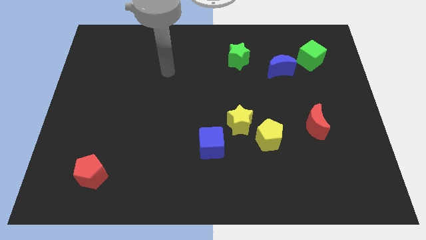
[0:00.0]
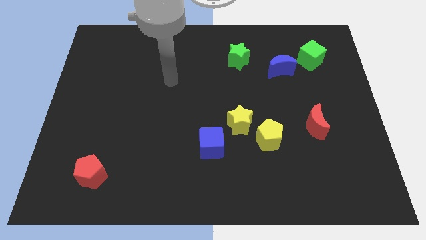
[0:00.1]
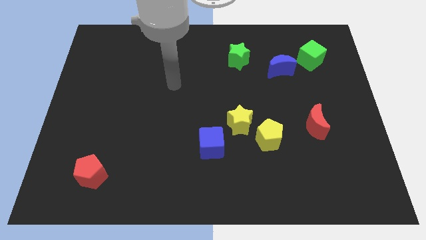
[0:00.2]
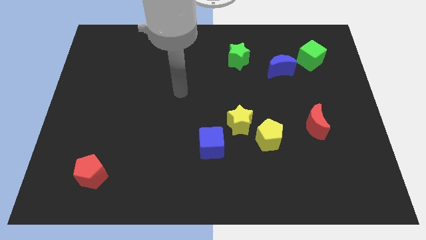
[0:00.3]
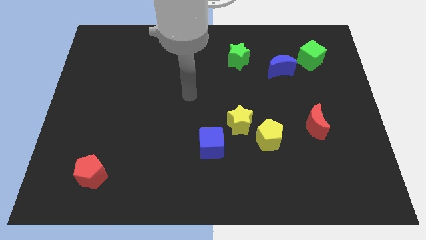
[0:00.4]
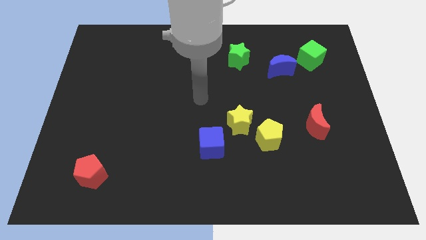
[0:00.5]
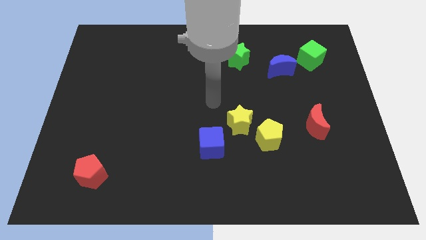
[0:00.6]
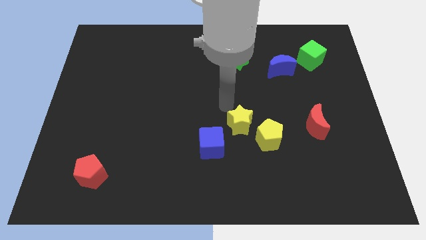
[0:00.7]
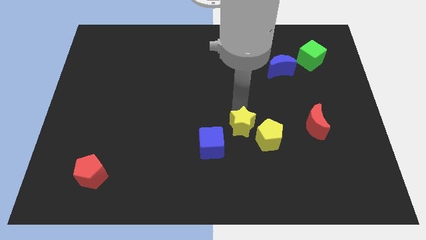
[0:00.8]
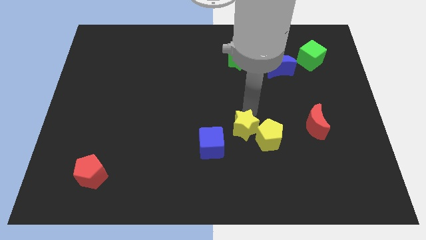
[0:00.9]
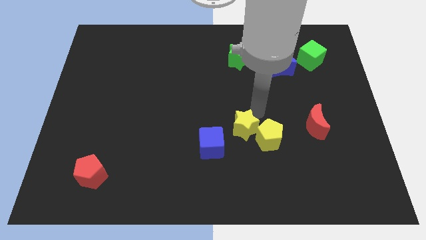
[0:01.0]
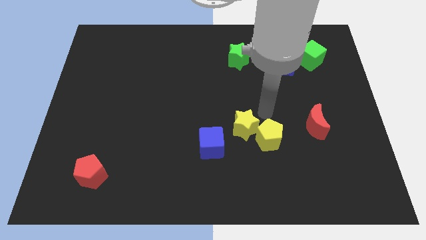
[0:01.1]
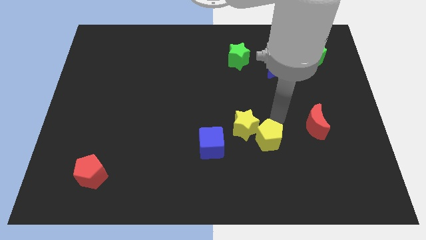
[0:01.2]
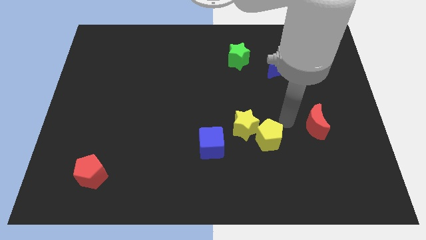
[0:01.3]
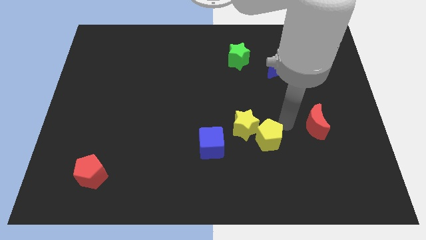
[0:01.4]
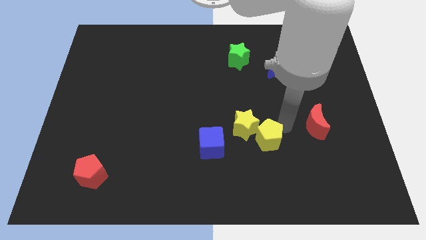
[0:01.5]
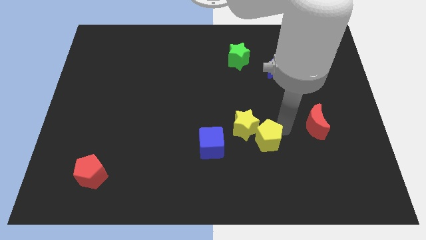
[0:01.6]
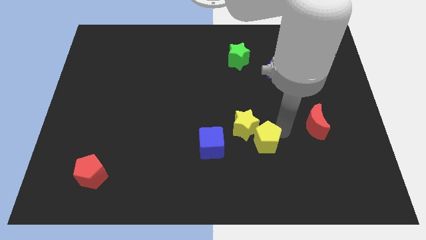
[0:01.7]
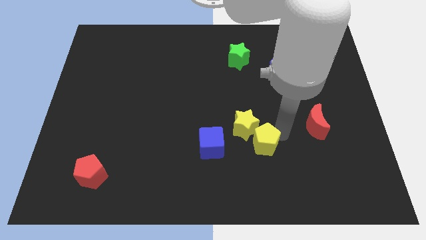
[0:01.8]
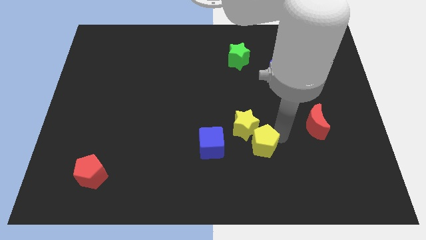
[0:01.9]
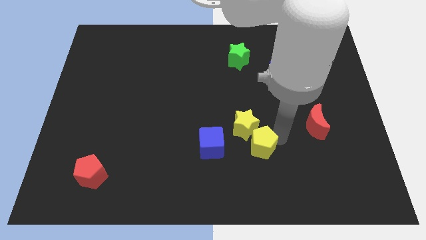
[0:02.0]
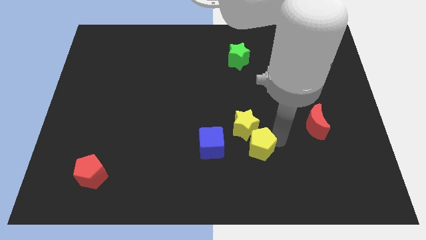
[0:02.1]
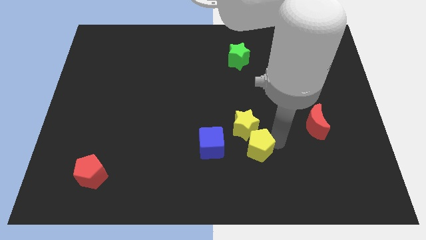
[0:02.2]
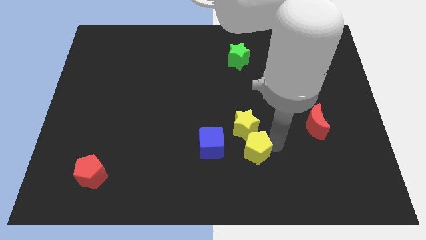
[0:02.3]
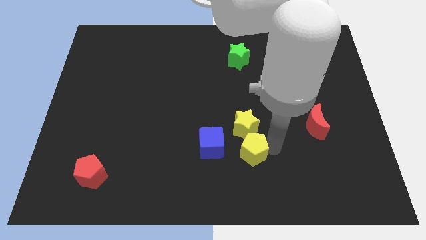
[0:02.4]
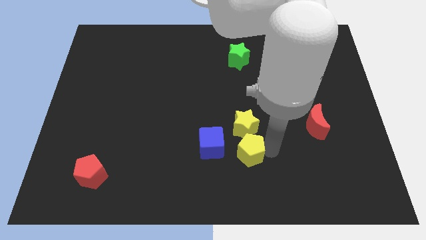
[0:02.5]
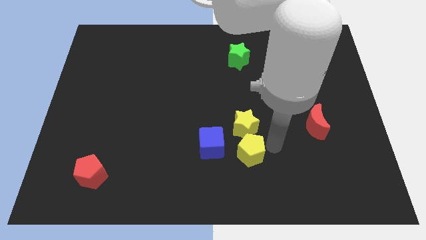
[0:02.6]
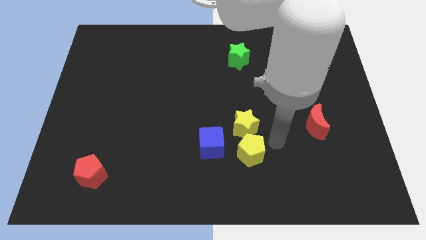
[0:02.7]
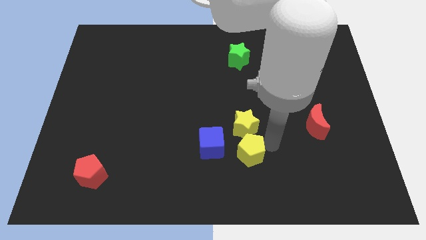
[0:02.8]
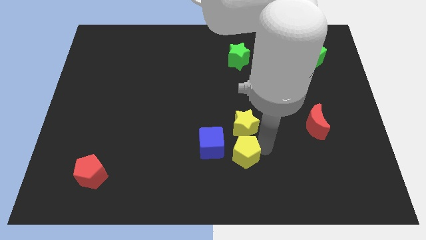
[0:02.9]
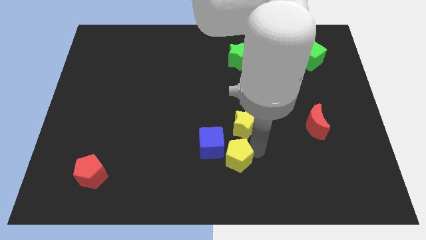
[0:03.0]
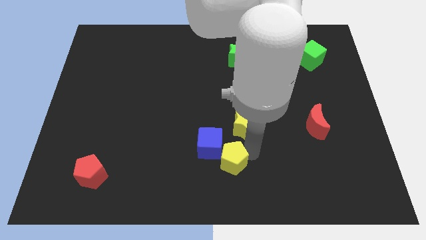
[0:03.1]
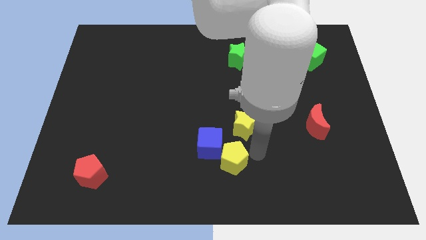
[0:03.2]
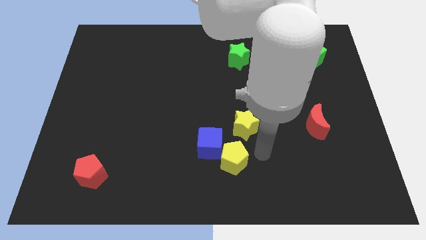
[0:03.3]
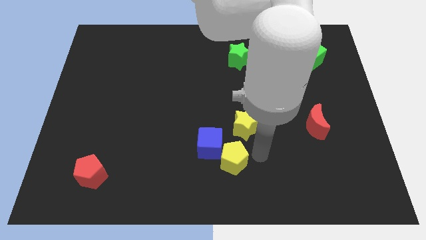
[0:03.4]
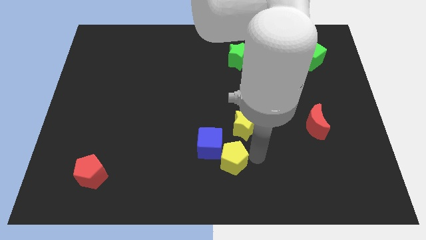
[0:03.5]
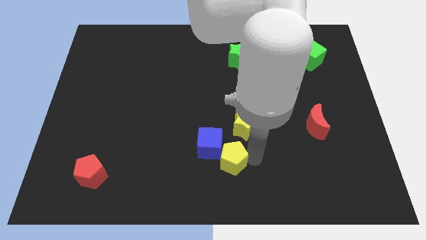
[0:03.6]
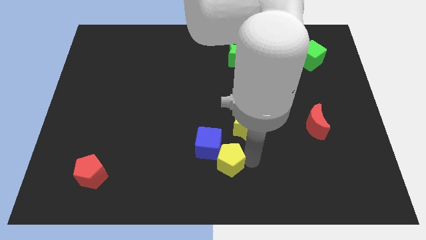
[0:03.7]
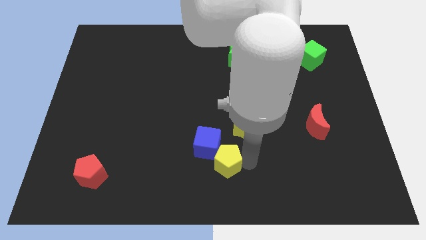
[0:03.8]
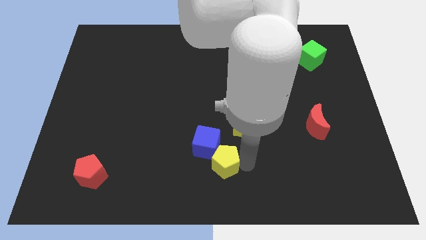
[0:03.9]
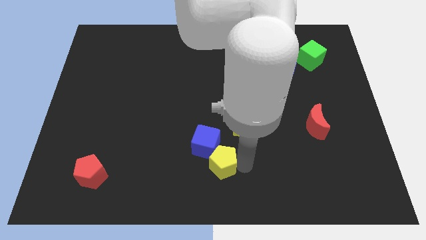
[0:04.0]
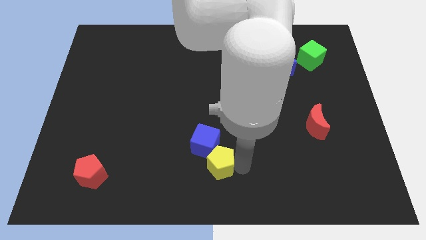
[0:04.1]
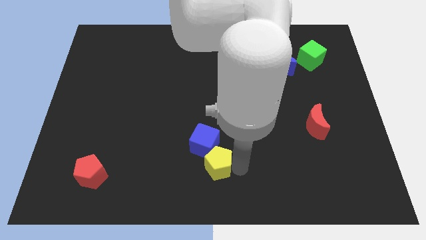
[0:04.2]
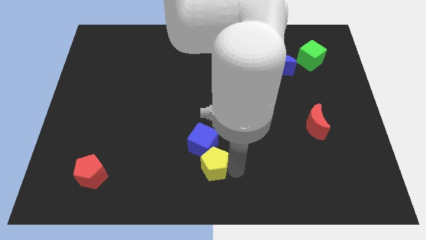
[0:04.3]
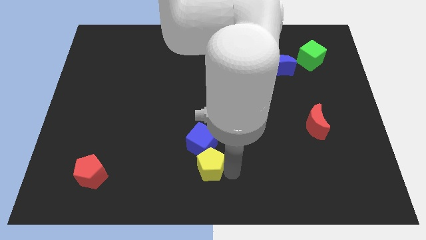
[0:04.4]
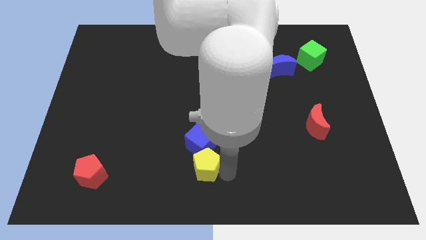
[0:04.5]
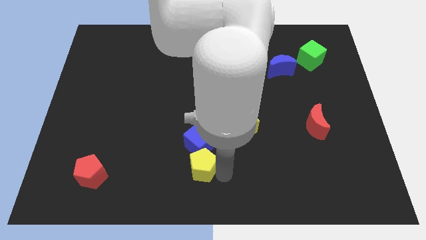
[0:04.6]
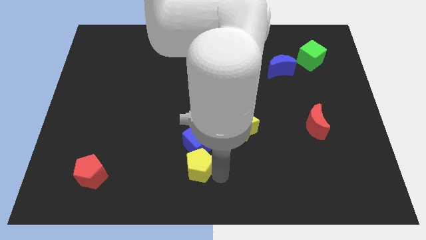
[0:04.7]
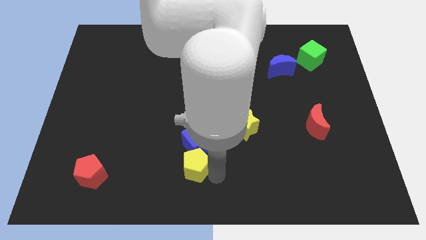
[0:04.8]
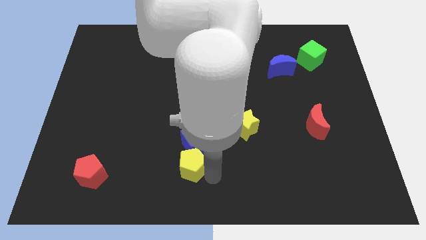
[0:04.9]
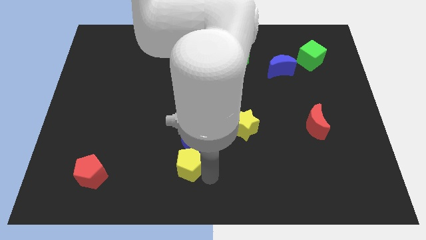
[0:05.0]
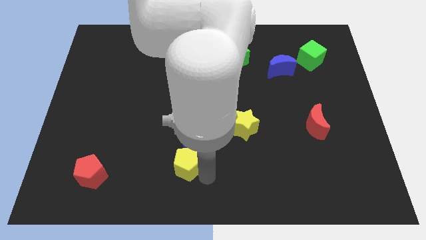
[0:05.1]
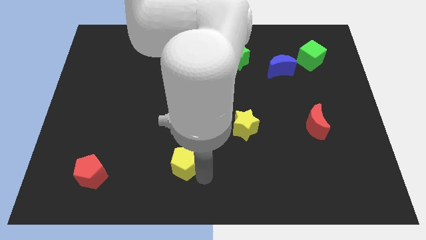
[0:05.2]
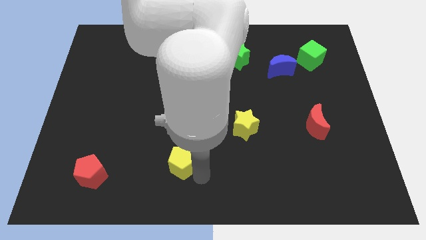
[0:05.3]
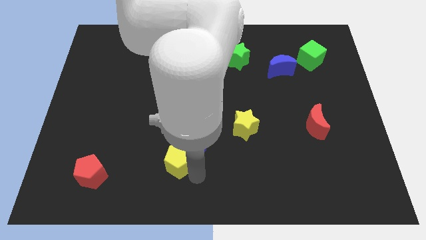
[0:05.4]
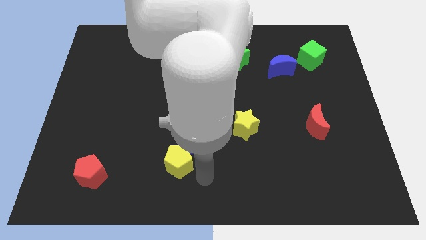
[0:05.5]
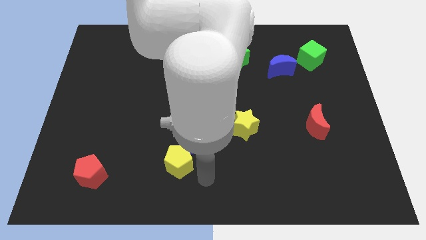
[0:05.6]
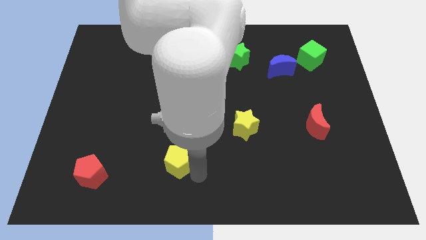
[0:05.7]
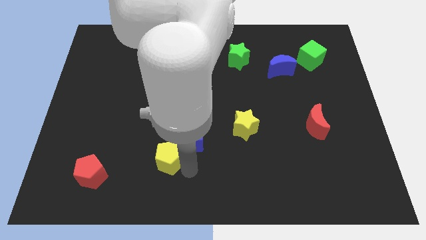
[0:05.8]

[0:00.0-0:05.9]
push the yellow pentagon to the left

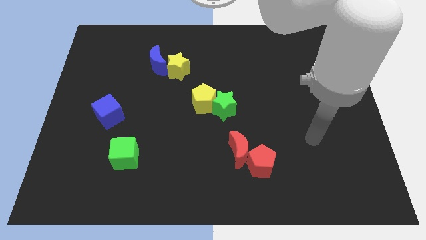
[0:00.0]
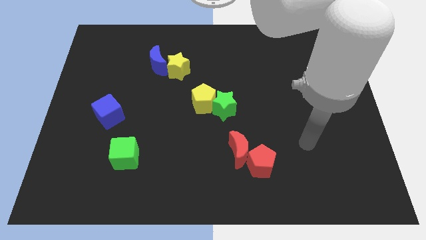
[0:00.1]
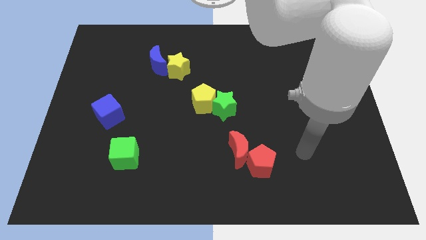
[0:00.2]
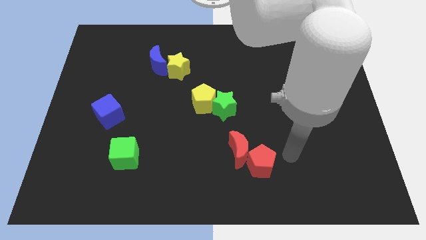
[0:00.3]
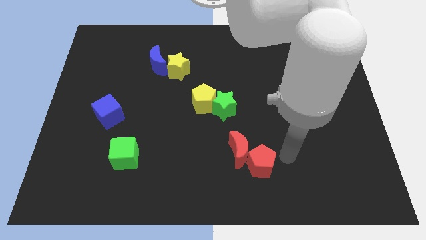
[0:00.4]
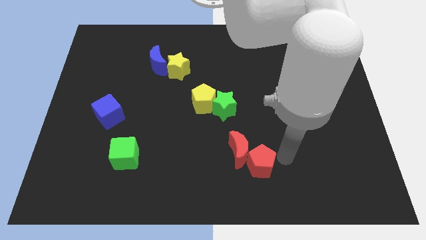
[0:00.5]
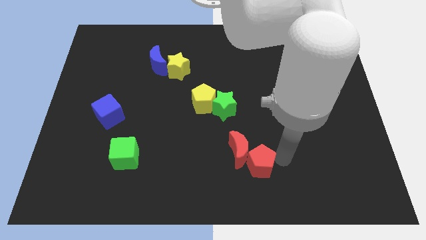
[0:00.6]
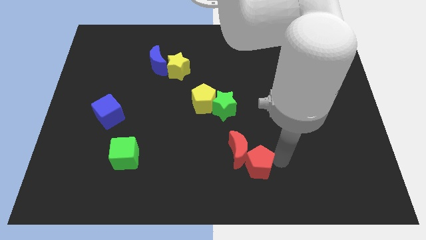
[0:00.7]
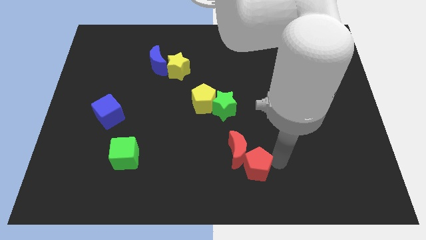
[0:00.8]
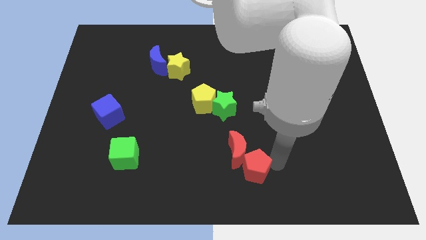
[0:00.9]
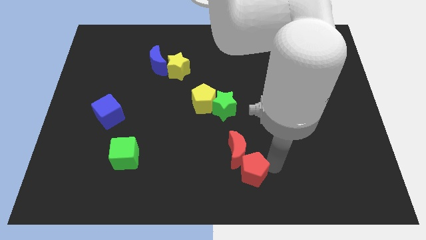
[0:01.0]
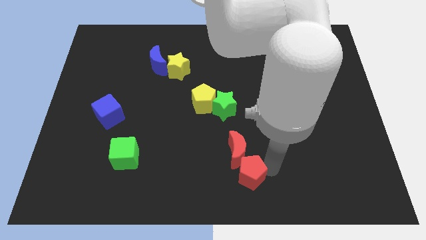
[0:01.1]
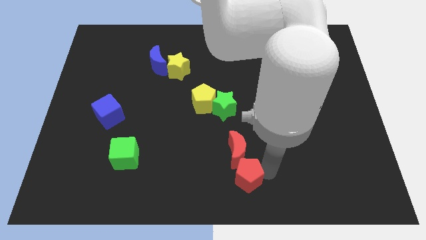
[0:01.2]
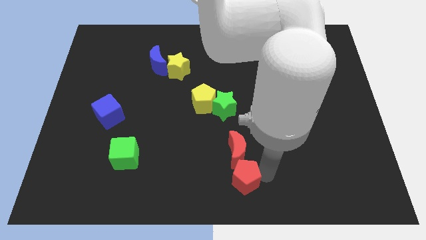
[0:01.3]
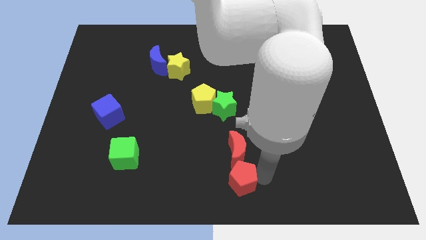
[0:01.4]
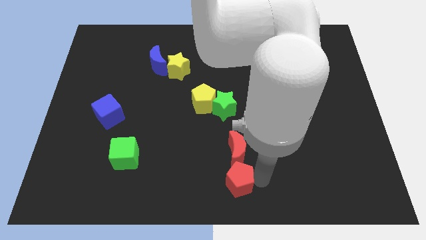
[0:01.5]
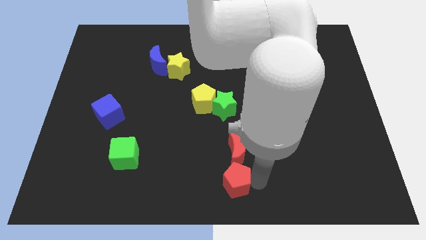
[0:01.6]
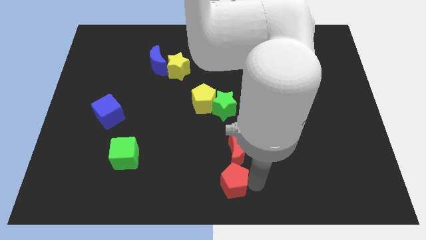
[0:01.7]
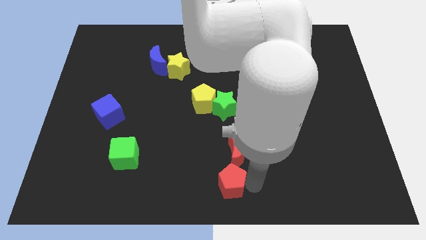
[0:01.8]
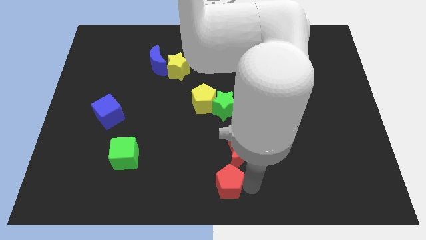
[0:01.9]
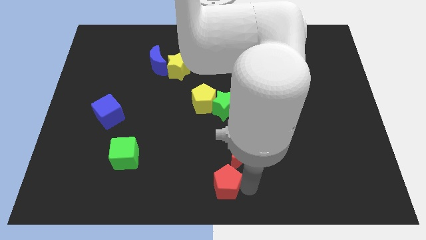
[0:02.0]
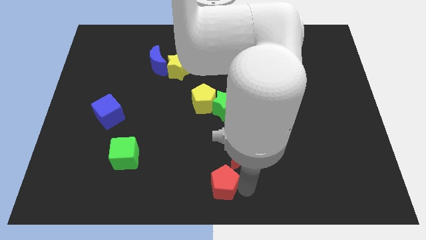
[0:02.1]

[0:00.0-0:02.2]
slide the red pentagon left a little bit
